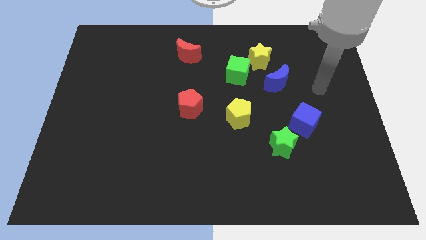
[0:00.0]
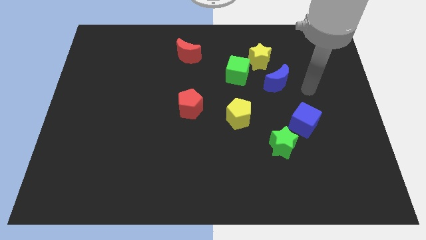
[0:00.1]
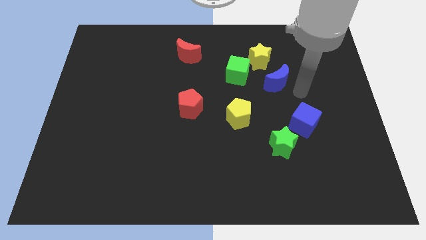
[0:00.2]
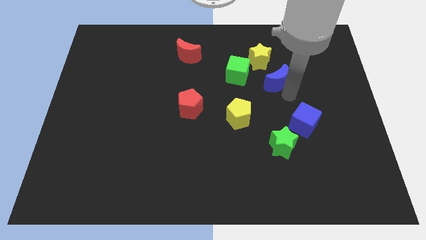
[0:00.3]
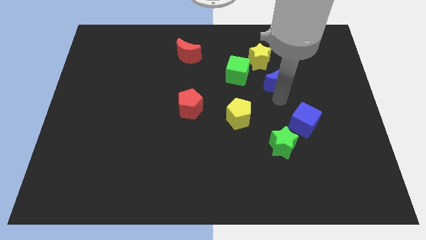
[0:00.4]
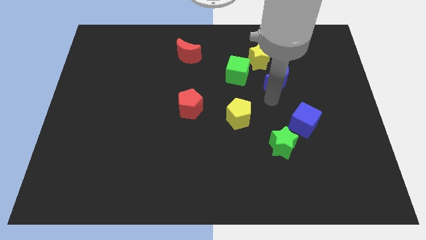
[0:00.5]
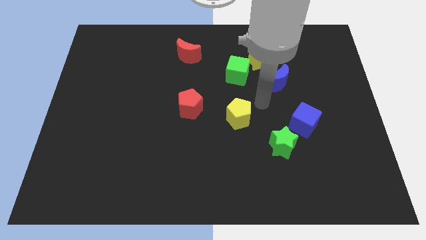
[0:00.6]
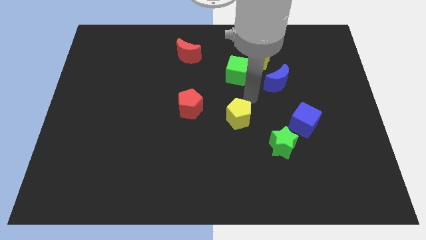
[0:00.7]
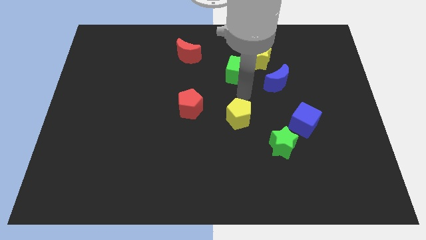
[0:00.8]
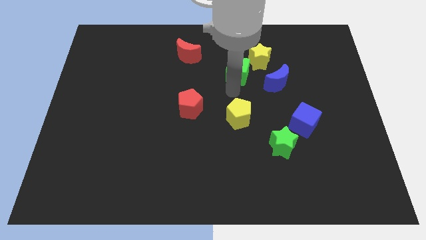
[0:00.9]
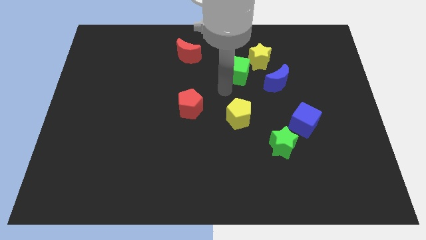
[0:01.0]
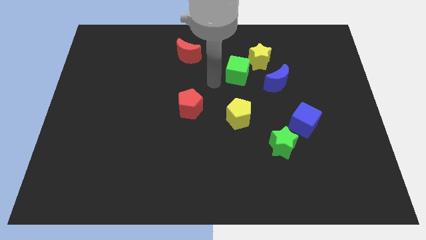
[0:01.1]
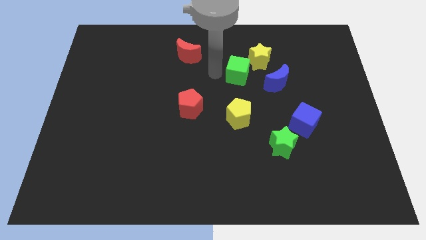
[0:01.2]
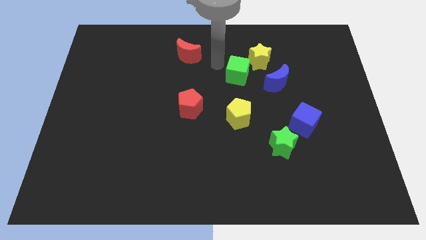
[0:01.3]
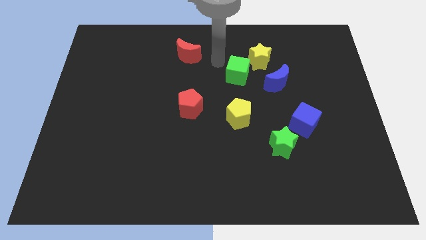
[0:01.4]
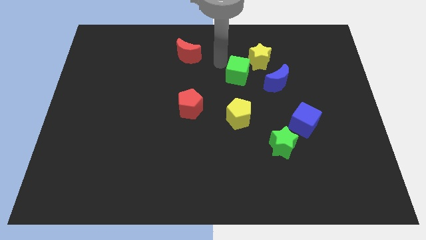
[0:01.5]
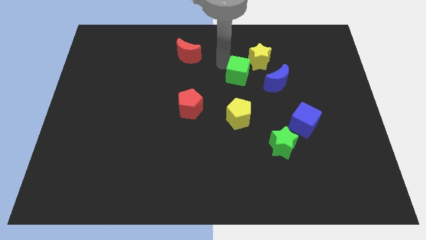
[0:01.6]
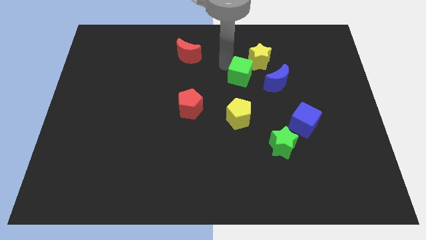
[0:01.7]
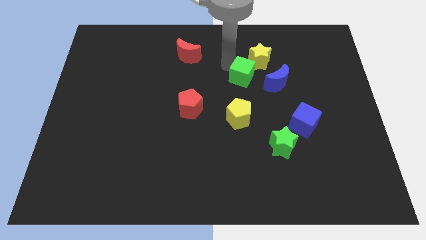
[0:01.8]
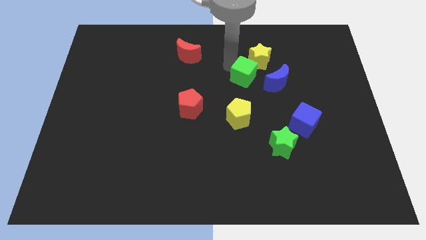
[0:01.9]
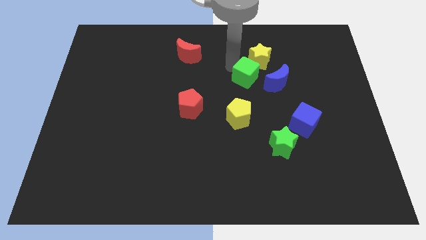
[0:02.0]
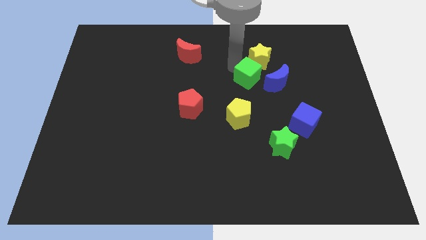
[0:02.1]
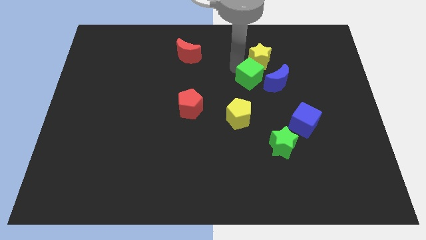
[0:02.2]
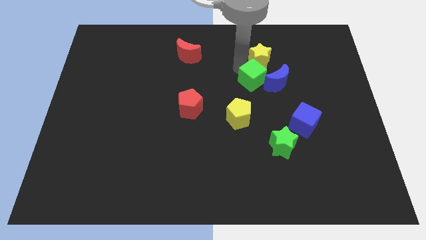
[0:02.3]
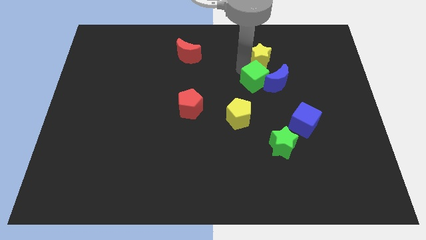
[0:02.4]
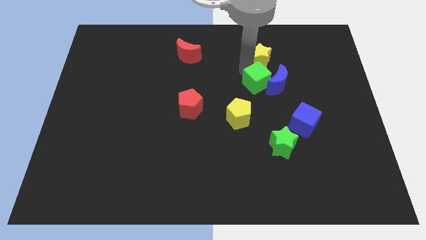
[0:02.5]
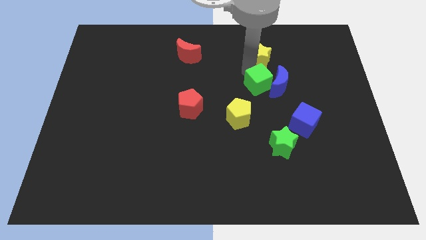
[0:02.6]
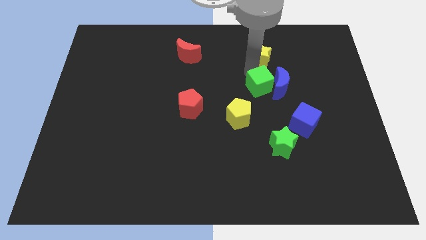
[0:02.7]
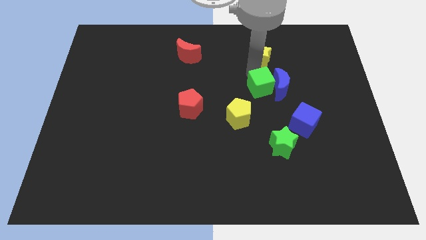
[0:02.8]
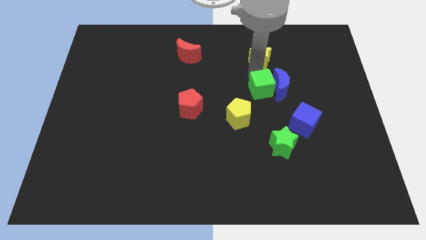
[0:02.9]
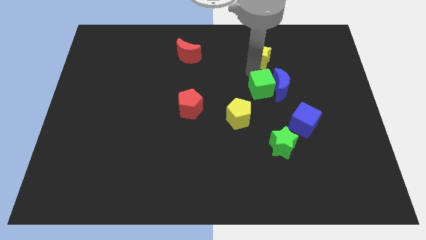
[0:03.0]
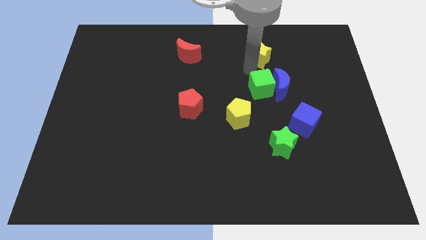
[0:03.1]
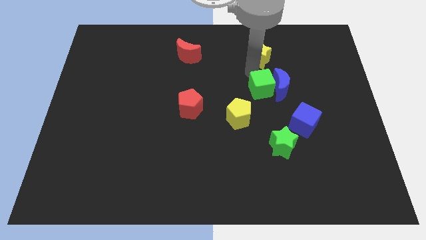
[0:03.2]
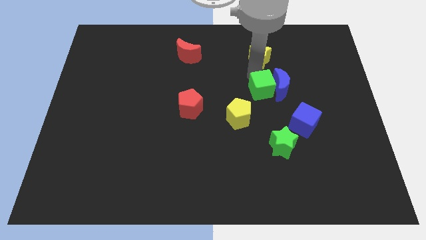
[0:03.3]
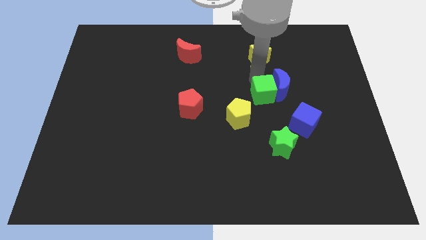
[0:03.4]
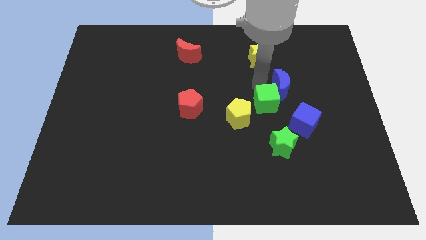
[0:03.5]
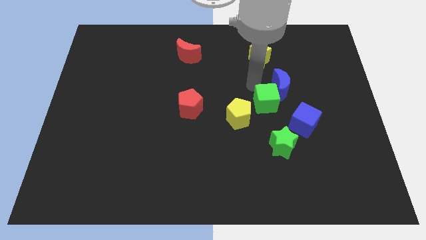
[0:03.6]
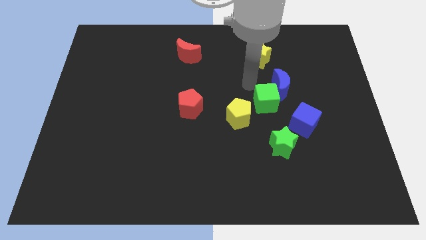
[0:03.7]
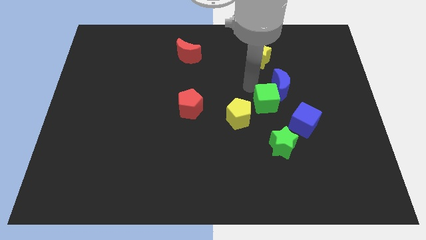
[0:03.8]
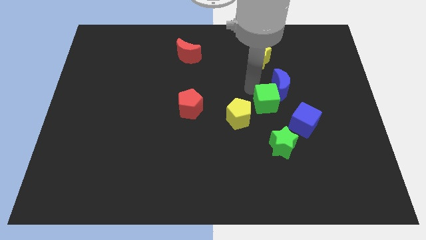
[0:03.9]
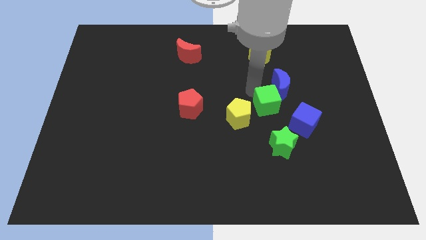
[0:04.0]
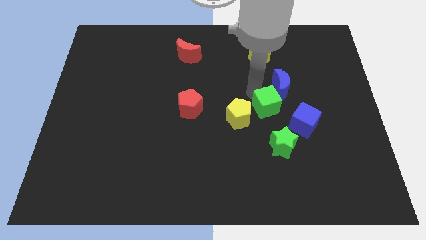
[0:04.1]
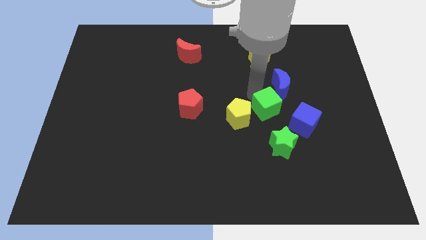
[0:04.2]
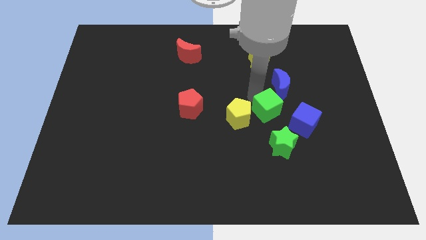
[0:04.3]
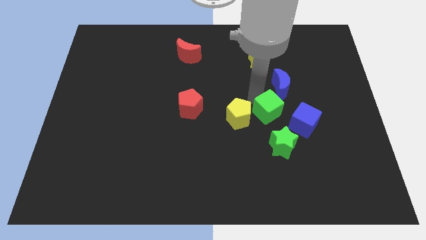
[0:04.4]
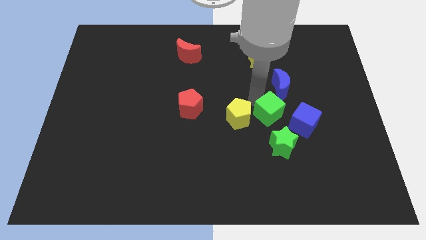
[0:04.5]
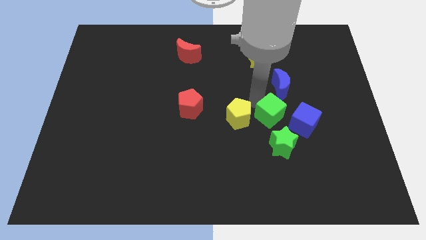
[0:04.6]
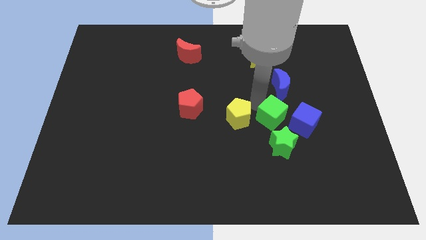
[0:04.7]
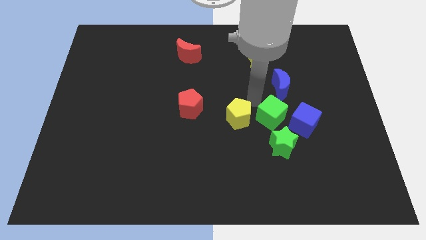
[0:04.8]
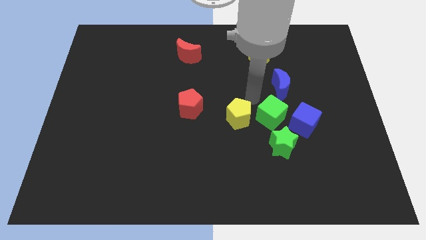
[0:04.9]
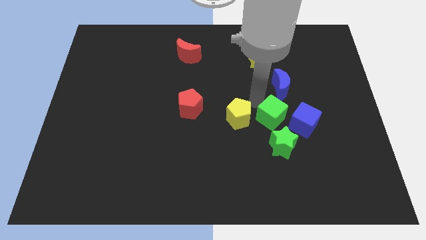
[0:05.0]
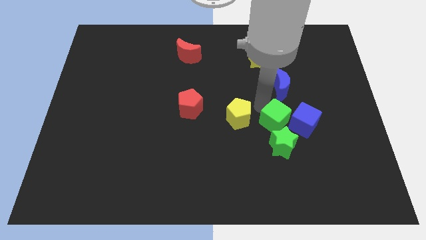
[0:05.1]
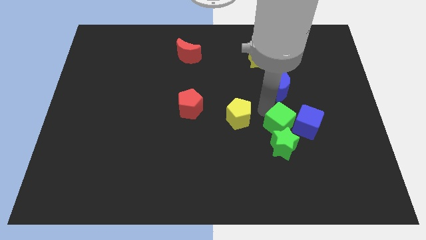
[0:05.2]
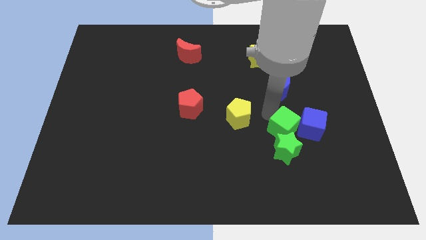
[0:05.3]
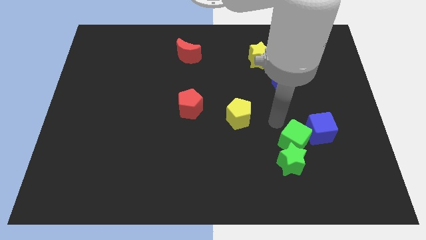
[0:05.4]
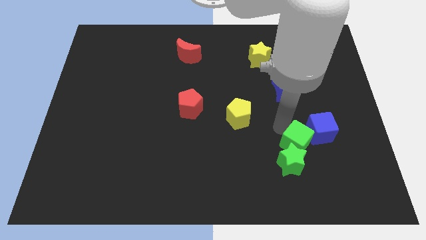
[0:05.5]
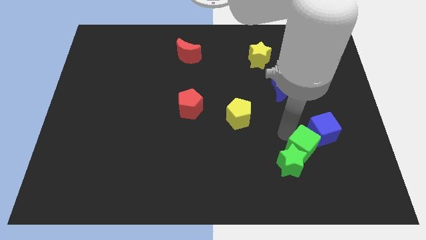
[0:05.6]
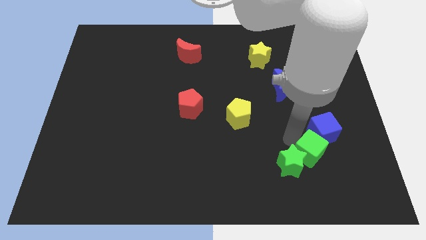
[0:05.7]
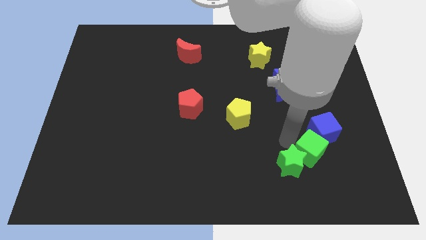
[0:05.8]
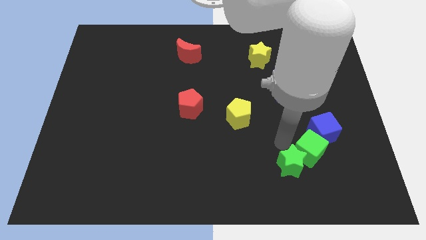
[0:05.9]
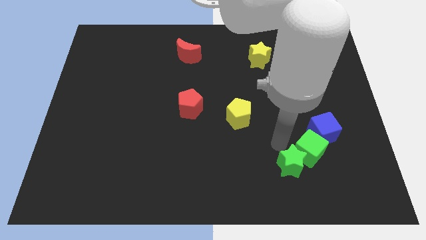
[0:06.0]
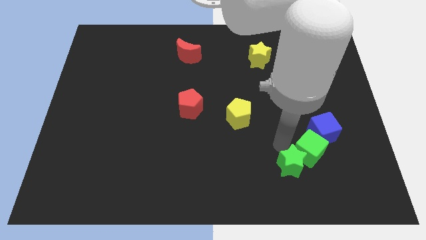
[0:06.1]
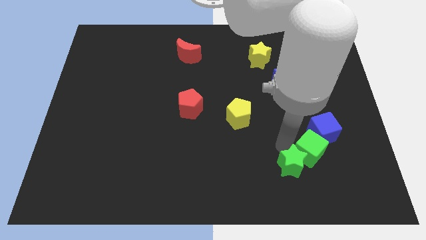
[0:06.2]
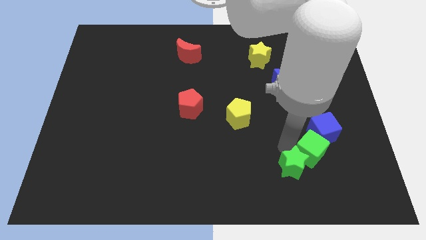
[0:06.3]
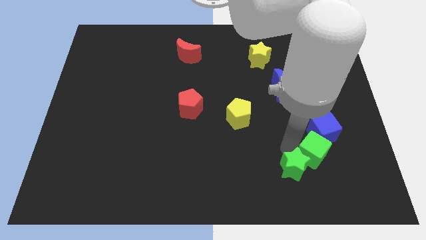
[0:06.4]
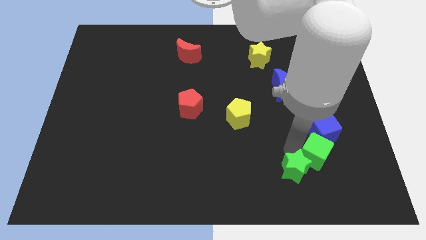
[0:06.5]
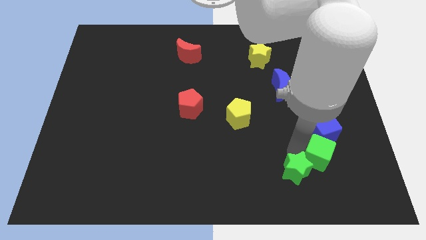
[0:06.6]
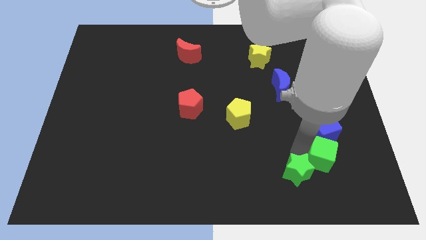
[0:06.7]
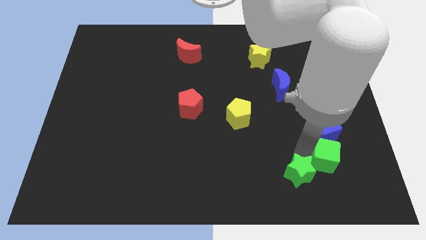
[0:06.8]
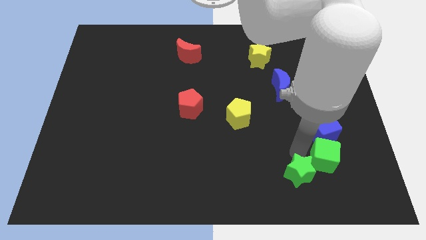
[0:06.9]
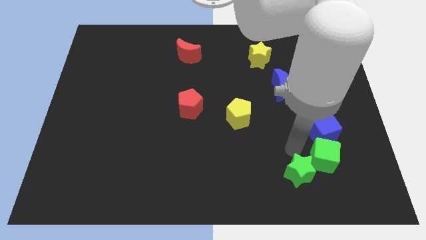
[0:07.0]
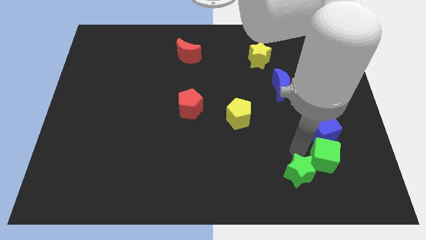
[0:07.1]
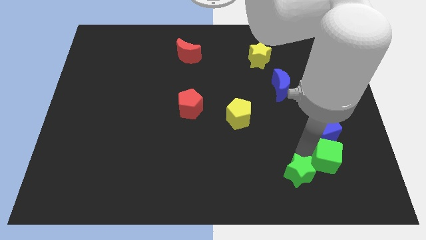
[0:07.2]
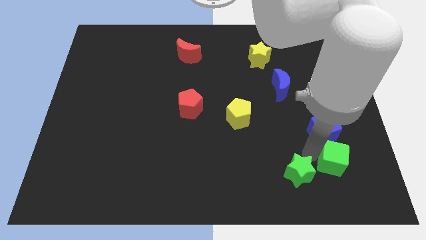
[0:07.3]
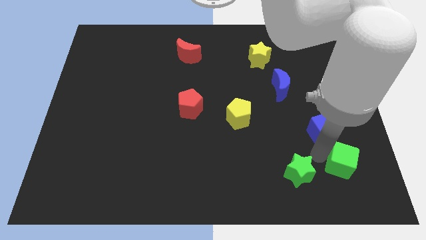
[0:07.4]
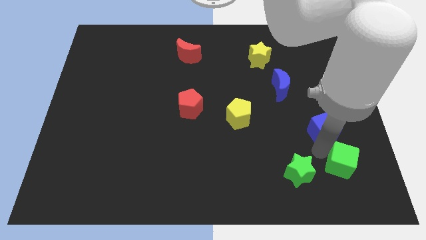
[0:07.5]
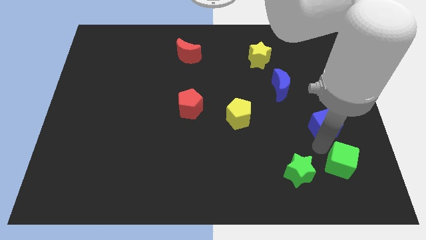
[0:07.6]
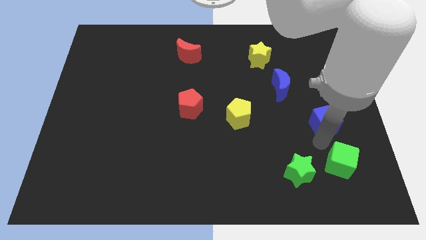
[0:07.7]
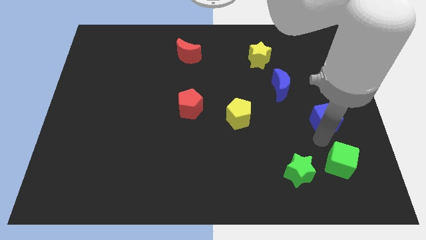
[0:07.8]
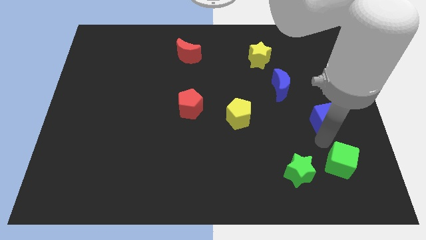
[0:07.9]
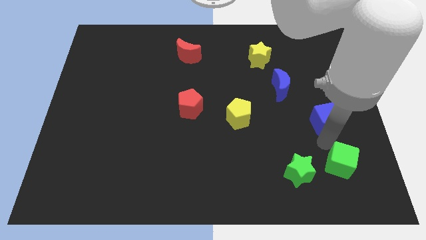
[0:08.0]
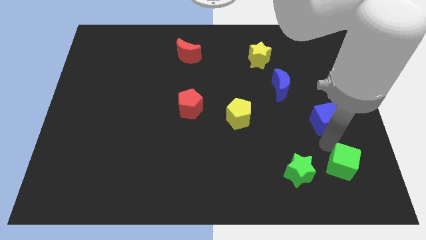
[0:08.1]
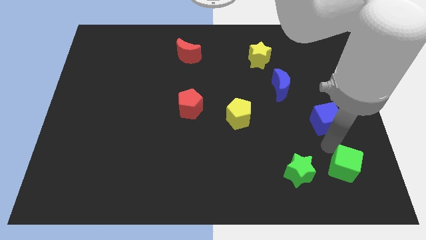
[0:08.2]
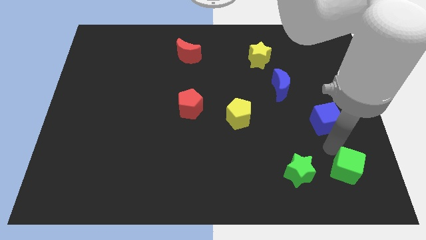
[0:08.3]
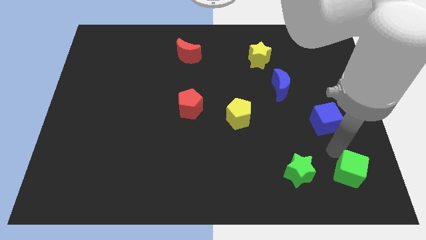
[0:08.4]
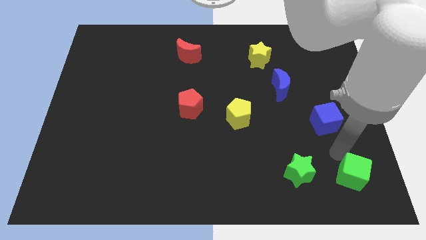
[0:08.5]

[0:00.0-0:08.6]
put the green cube to the bottom right corner
